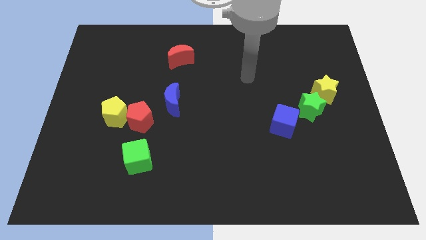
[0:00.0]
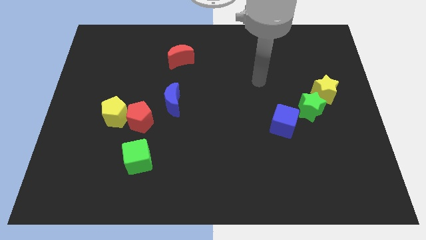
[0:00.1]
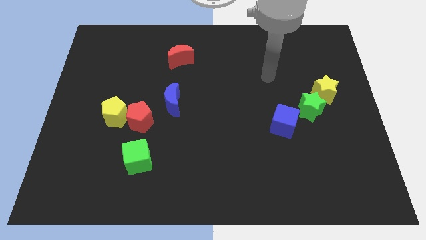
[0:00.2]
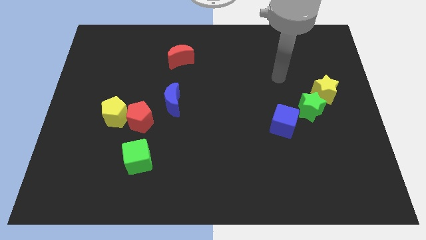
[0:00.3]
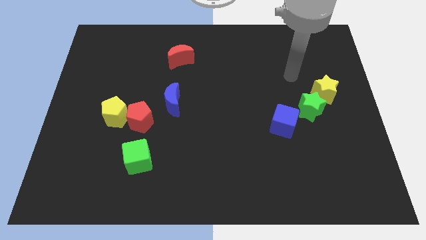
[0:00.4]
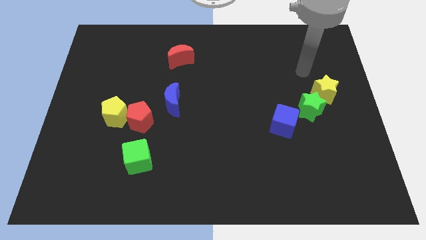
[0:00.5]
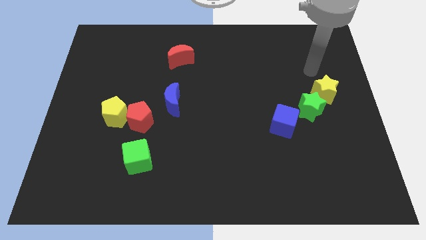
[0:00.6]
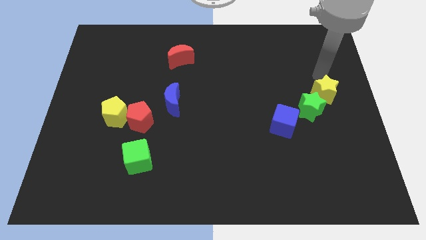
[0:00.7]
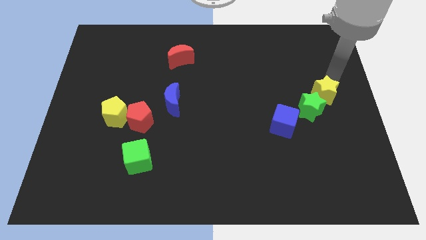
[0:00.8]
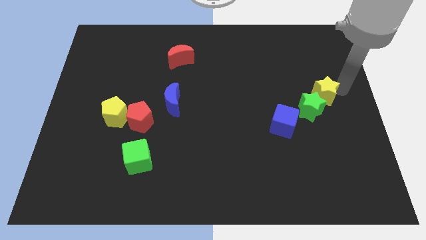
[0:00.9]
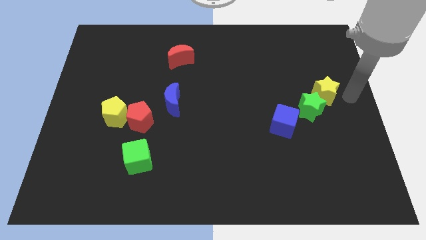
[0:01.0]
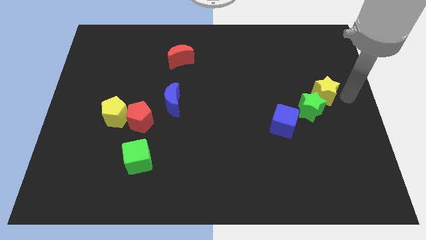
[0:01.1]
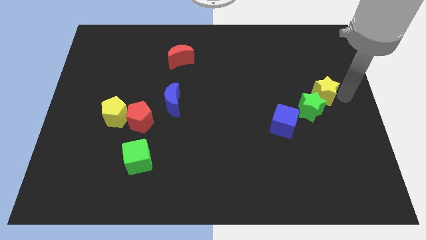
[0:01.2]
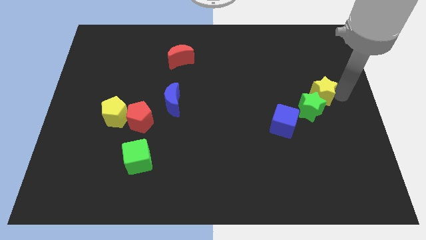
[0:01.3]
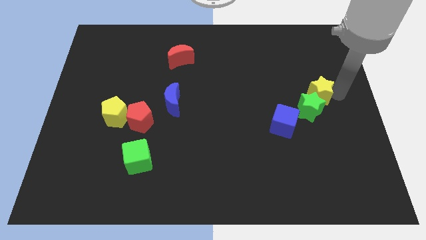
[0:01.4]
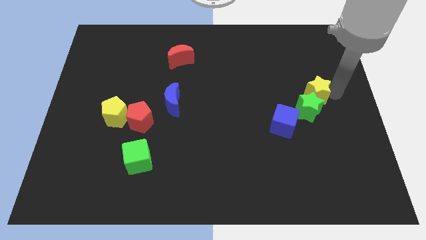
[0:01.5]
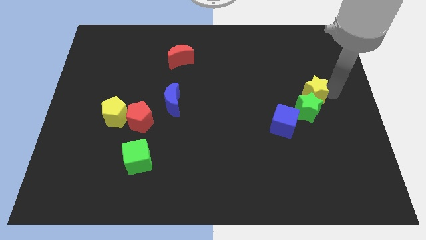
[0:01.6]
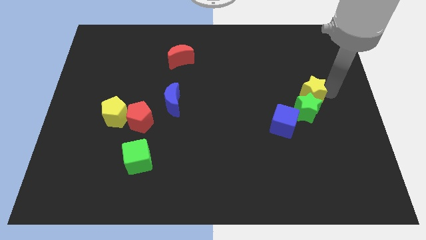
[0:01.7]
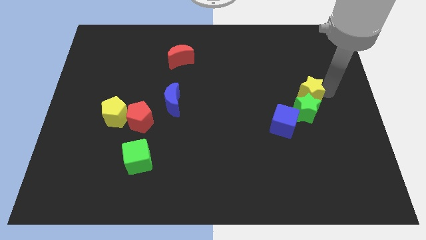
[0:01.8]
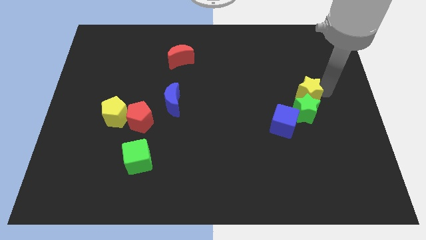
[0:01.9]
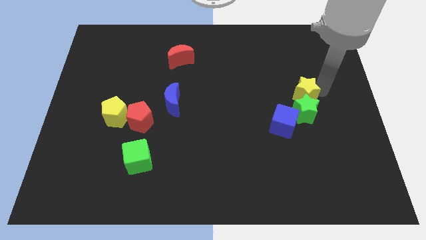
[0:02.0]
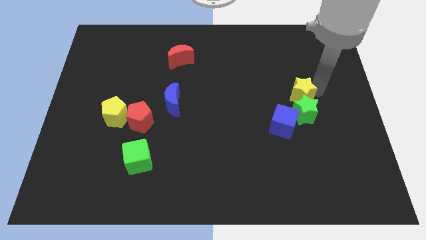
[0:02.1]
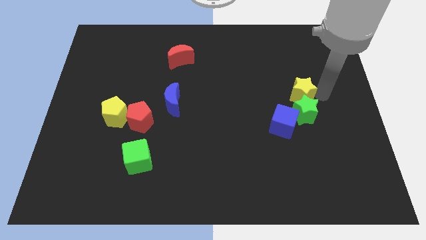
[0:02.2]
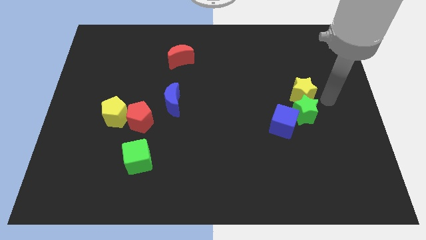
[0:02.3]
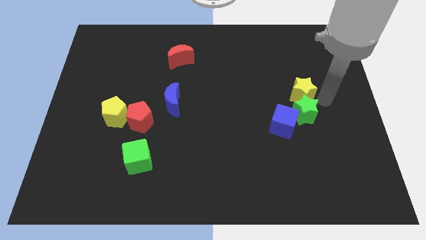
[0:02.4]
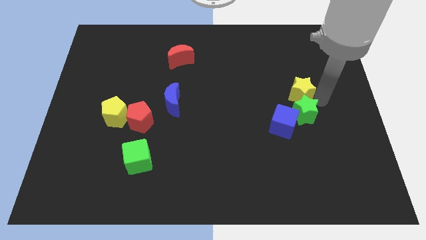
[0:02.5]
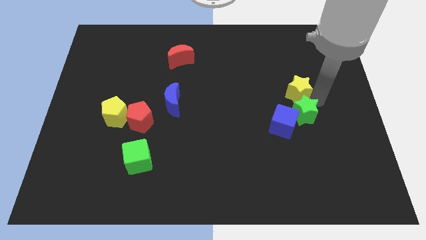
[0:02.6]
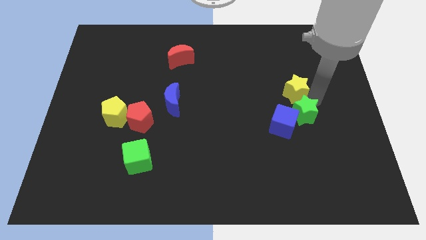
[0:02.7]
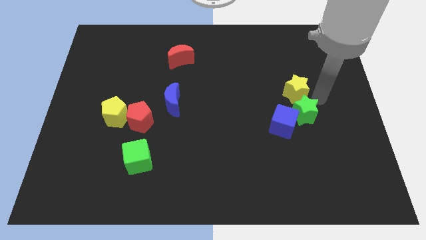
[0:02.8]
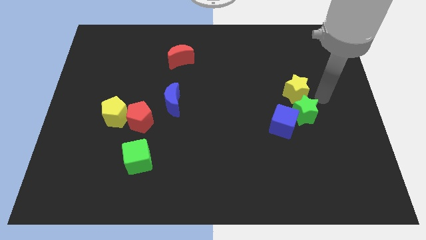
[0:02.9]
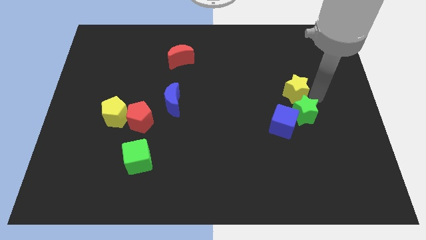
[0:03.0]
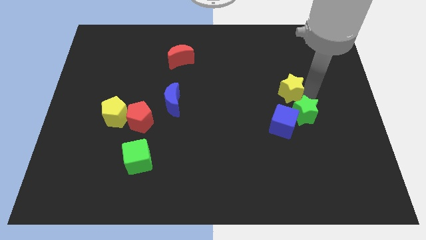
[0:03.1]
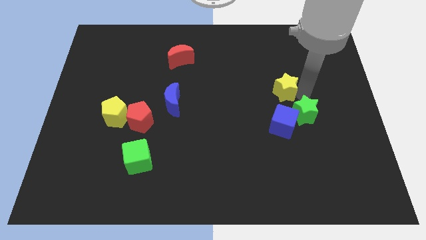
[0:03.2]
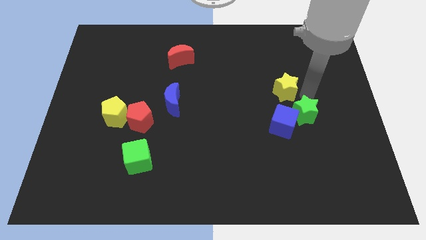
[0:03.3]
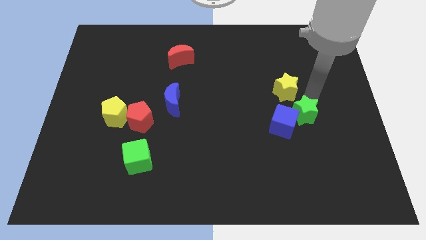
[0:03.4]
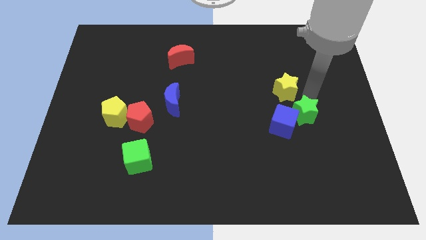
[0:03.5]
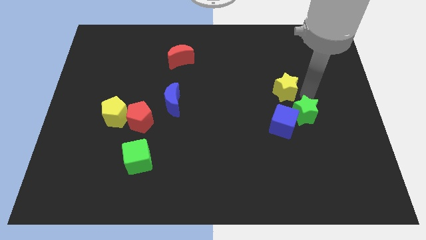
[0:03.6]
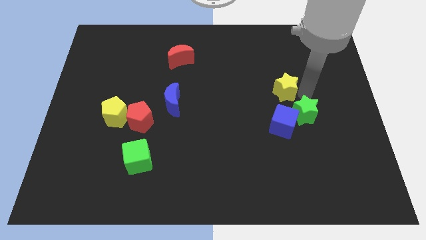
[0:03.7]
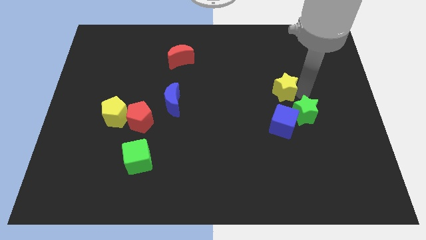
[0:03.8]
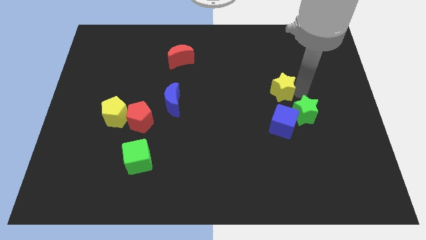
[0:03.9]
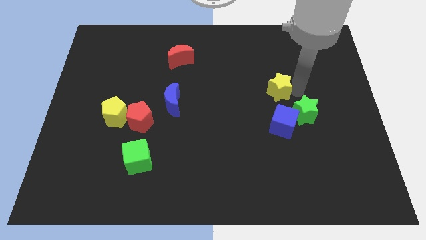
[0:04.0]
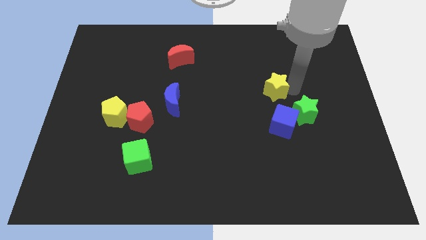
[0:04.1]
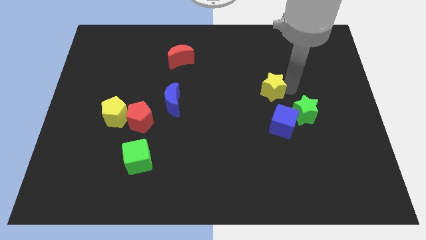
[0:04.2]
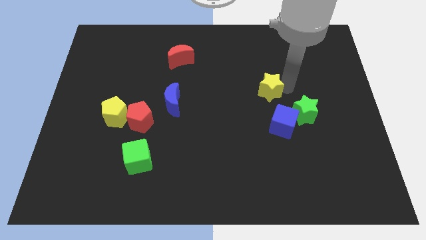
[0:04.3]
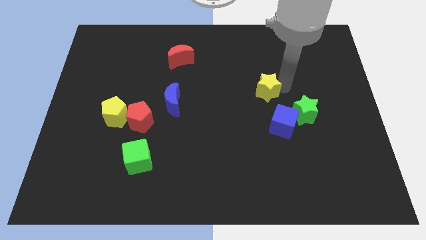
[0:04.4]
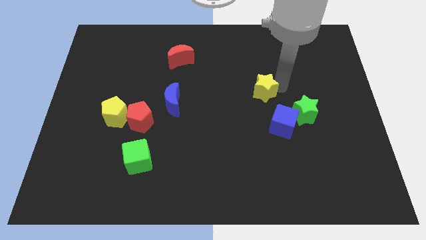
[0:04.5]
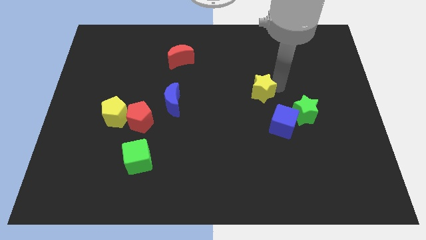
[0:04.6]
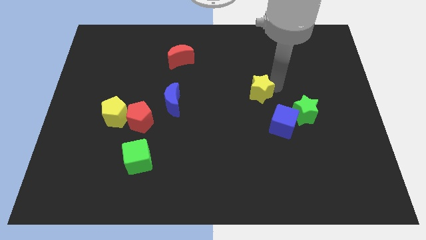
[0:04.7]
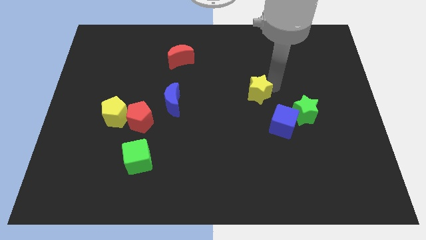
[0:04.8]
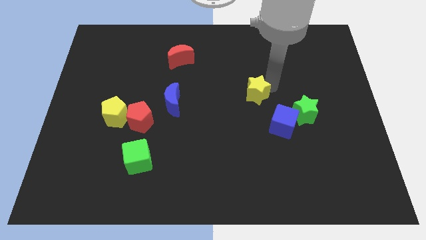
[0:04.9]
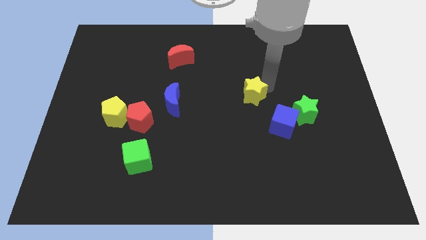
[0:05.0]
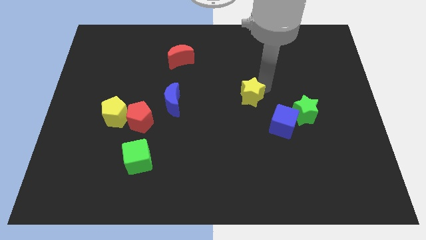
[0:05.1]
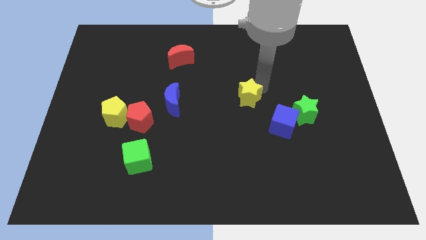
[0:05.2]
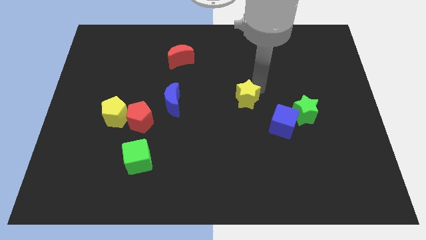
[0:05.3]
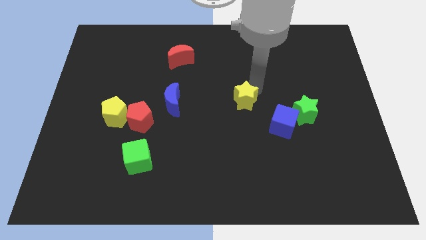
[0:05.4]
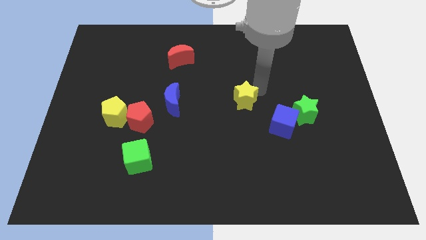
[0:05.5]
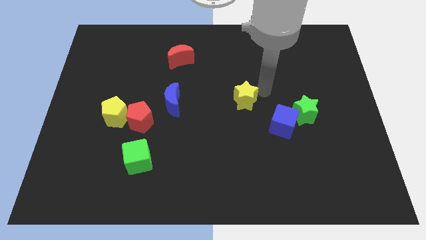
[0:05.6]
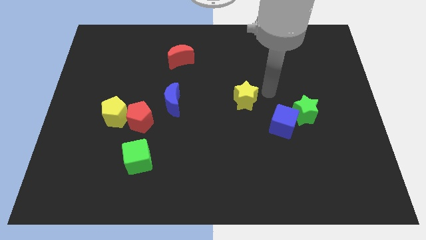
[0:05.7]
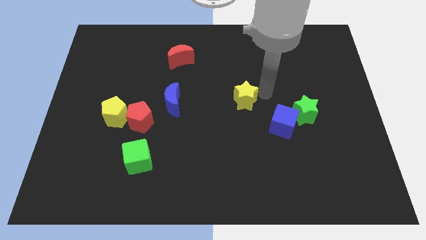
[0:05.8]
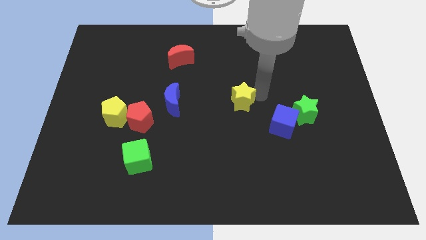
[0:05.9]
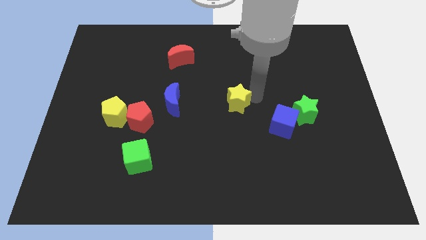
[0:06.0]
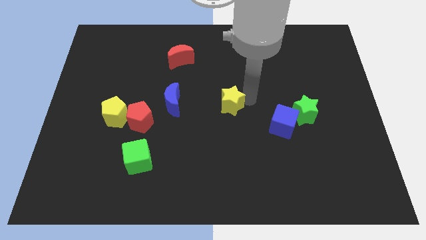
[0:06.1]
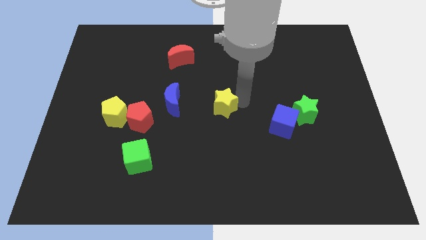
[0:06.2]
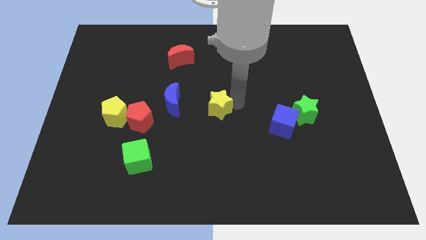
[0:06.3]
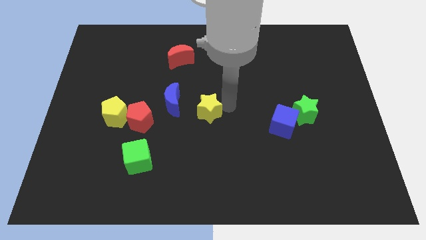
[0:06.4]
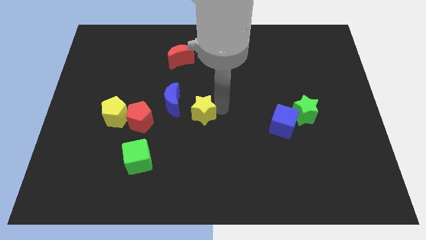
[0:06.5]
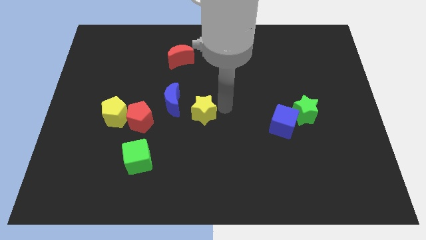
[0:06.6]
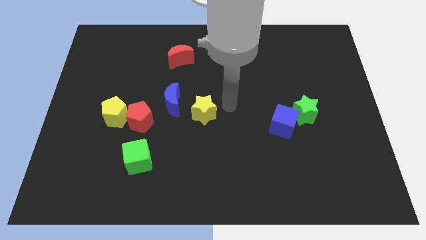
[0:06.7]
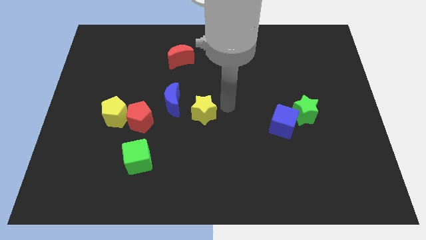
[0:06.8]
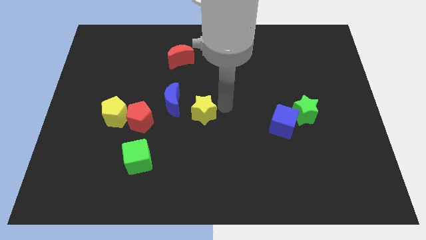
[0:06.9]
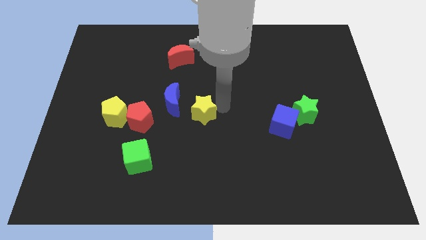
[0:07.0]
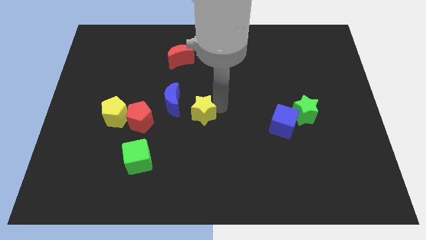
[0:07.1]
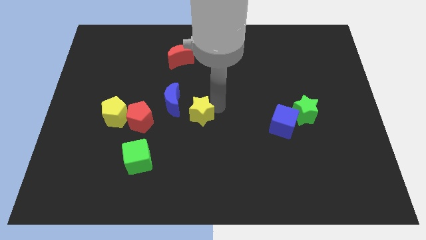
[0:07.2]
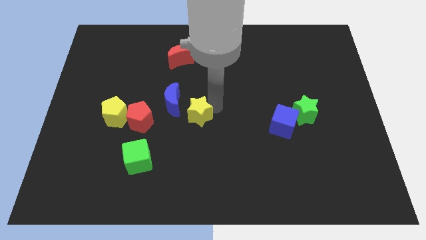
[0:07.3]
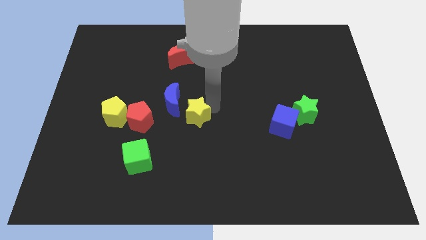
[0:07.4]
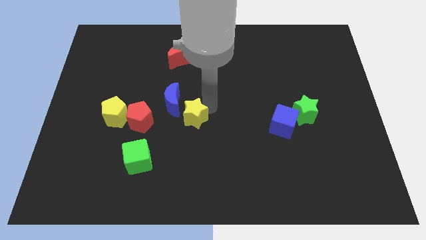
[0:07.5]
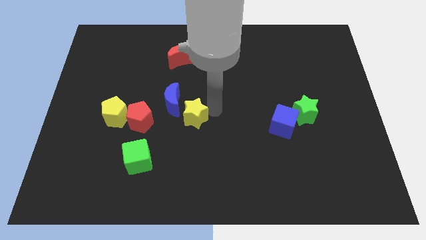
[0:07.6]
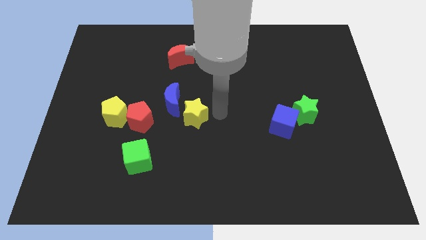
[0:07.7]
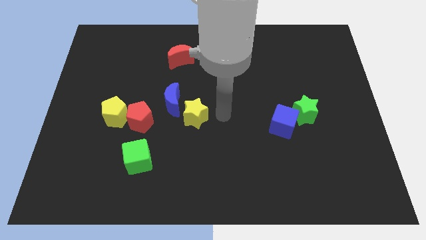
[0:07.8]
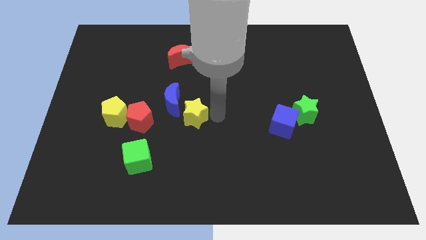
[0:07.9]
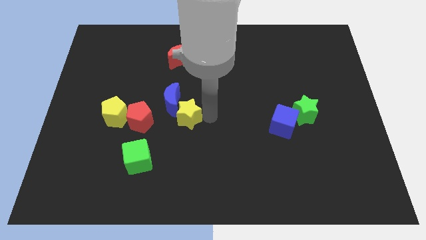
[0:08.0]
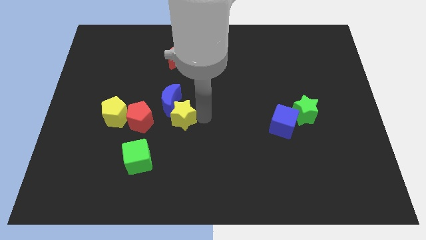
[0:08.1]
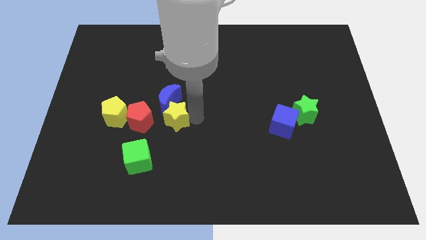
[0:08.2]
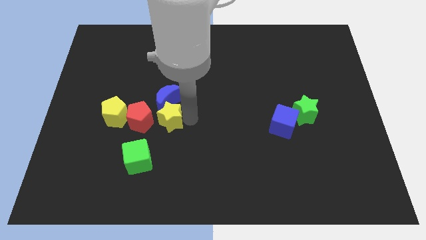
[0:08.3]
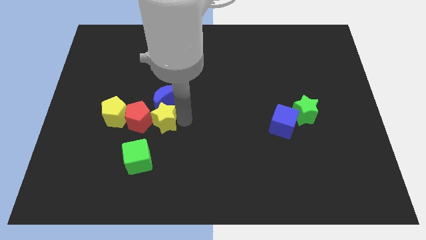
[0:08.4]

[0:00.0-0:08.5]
slide the yellow star to the red pentagon
